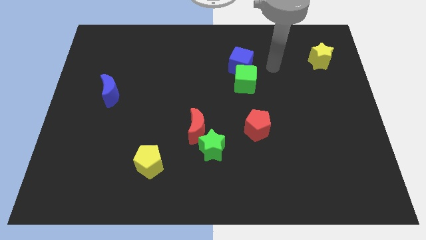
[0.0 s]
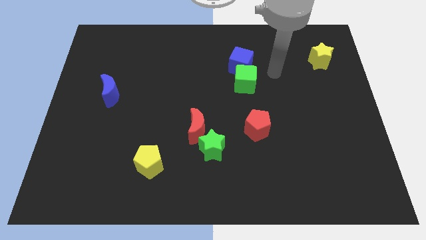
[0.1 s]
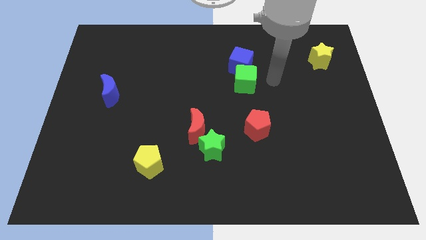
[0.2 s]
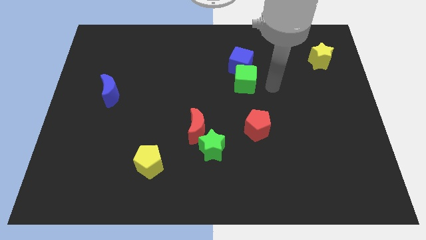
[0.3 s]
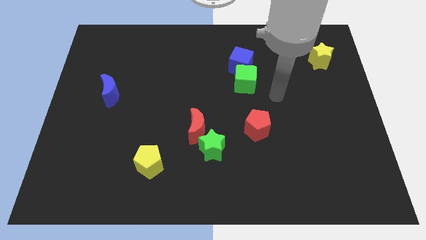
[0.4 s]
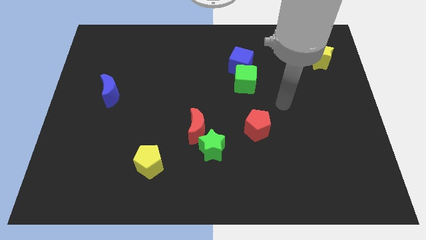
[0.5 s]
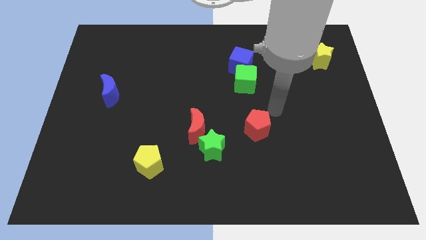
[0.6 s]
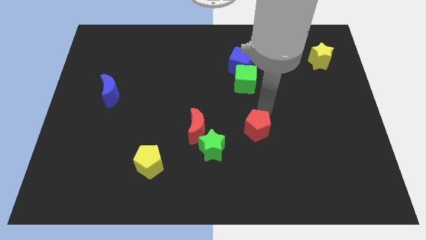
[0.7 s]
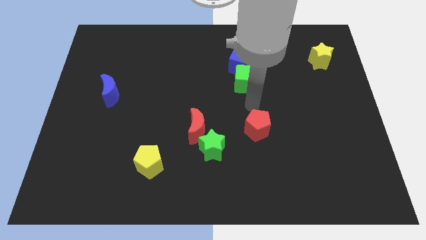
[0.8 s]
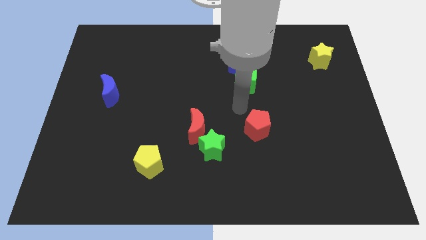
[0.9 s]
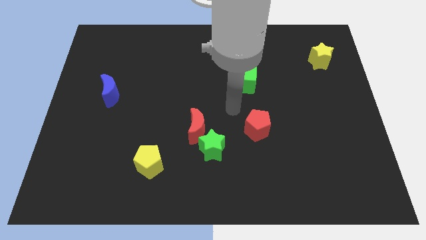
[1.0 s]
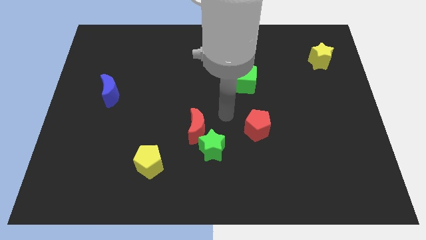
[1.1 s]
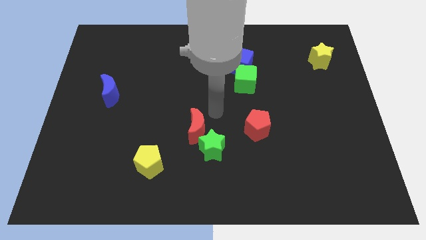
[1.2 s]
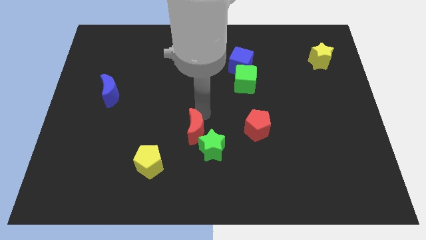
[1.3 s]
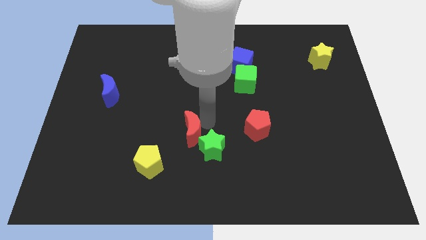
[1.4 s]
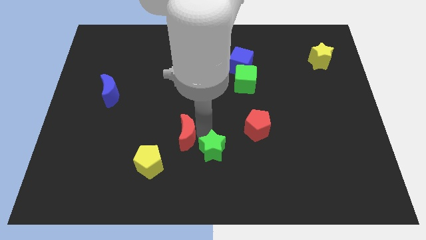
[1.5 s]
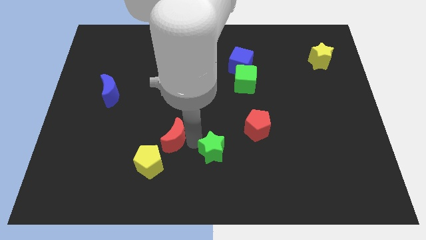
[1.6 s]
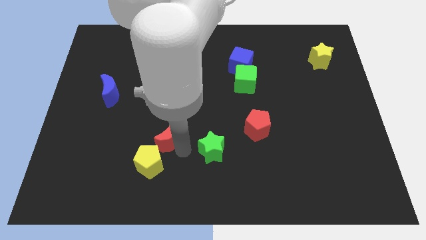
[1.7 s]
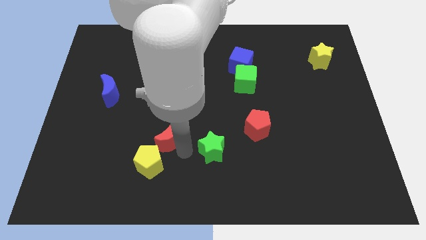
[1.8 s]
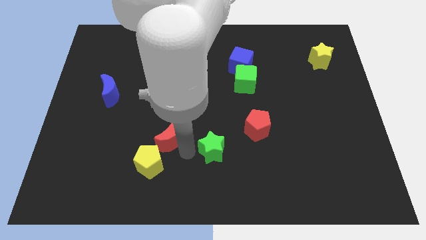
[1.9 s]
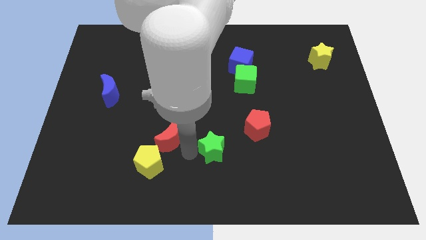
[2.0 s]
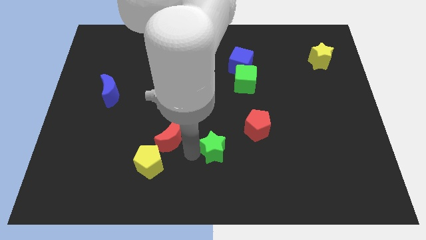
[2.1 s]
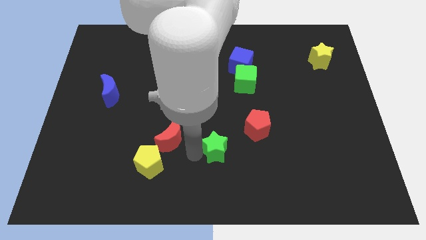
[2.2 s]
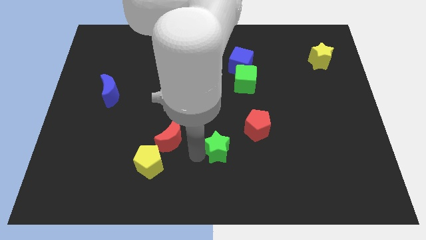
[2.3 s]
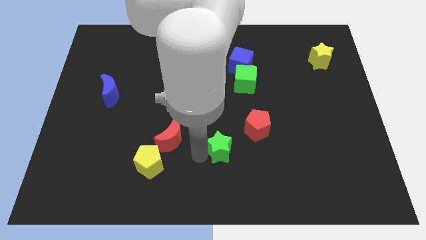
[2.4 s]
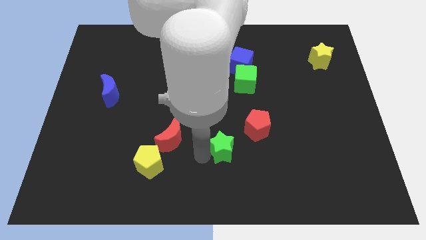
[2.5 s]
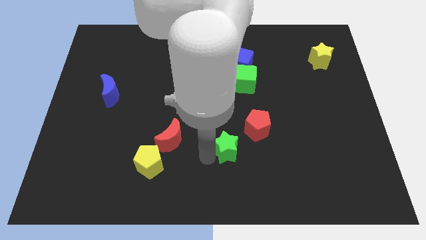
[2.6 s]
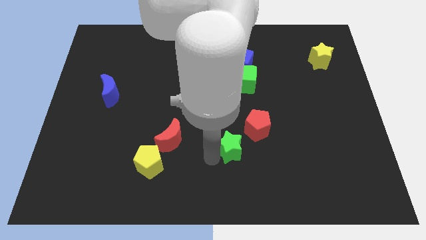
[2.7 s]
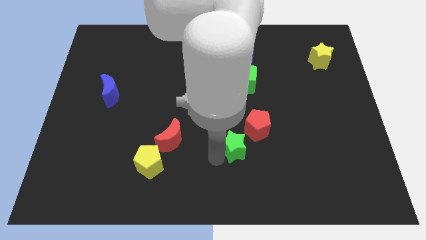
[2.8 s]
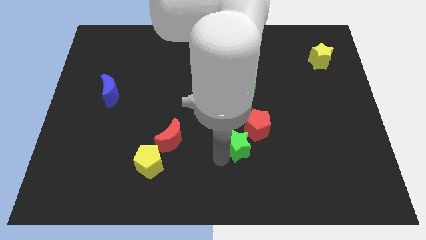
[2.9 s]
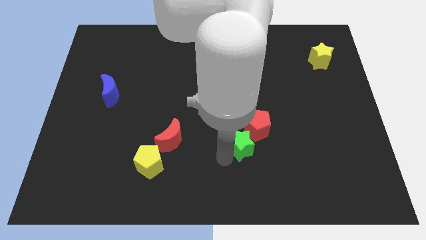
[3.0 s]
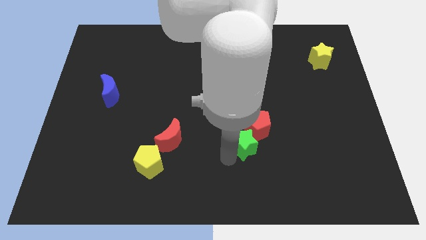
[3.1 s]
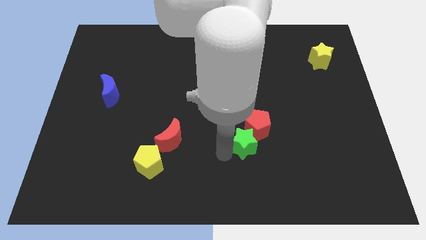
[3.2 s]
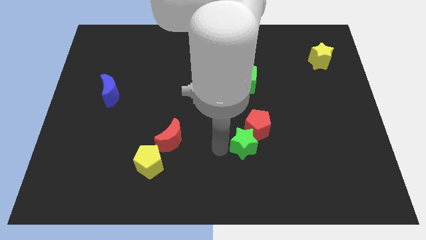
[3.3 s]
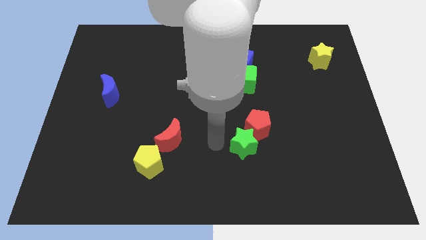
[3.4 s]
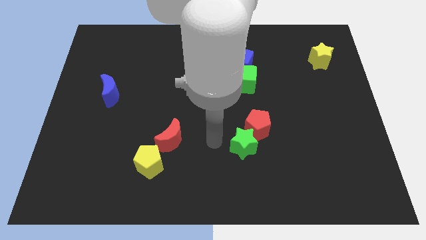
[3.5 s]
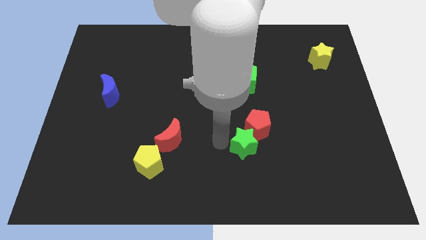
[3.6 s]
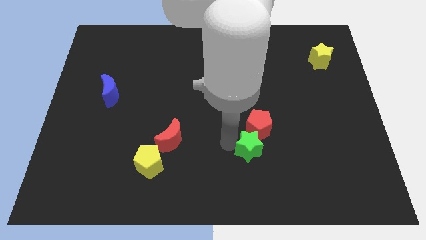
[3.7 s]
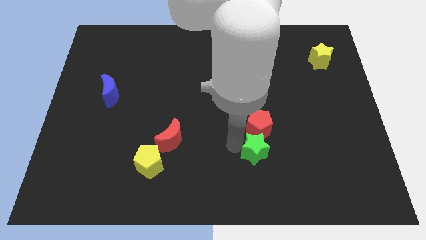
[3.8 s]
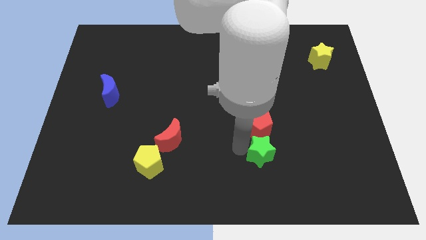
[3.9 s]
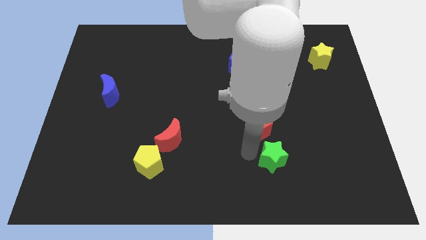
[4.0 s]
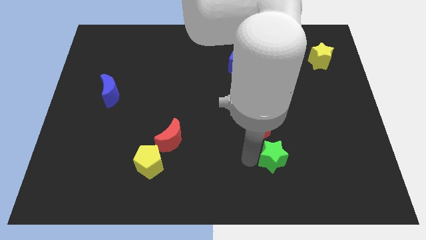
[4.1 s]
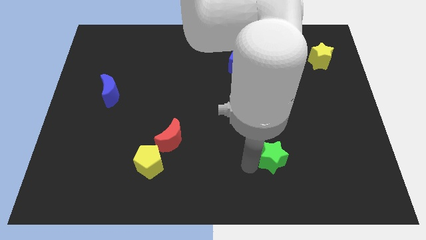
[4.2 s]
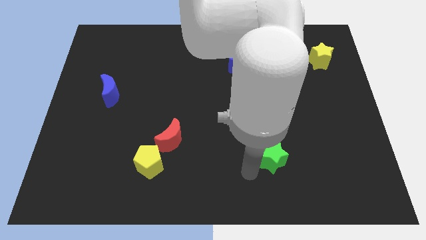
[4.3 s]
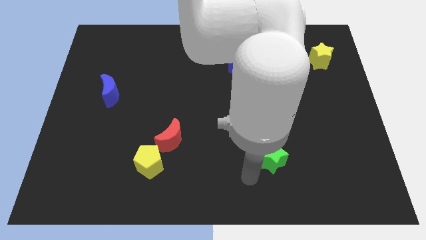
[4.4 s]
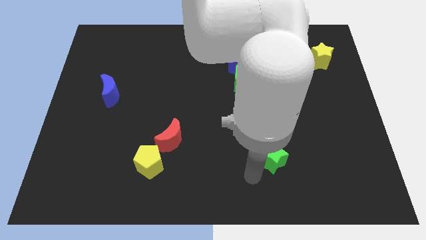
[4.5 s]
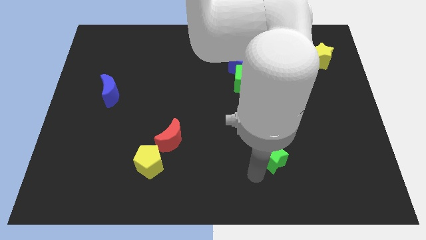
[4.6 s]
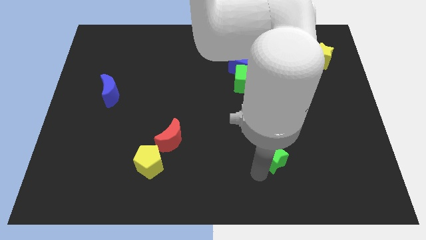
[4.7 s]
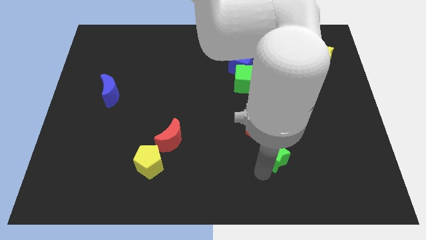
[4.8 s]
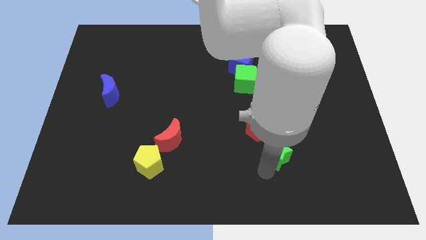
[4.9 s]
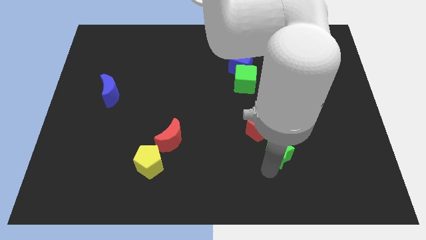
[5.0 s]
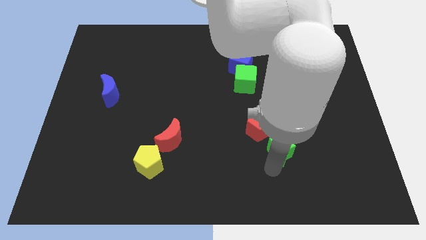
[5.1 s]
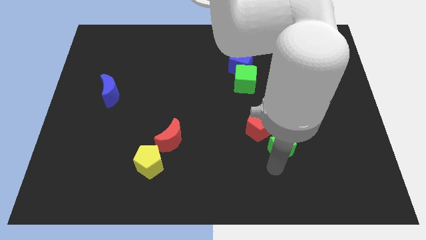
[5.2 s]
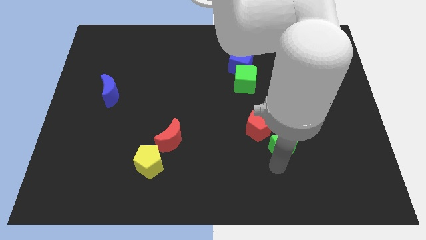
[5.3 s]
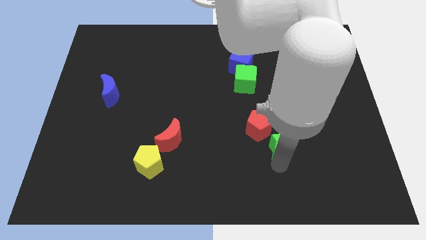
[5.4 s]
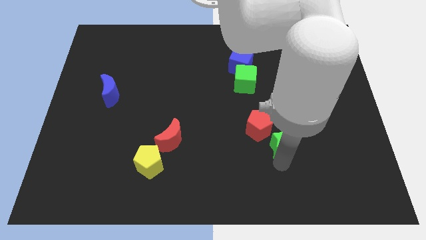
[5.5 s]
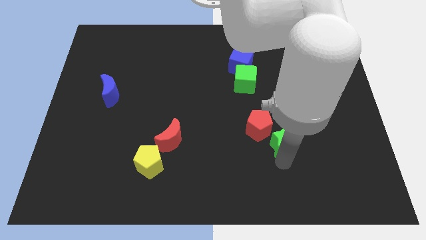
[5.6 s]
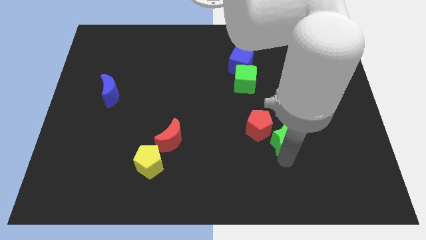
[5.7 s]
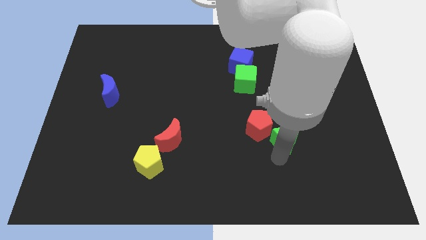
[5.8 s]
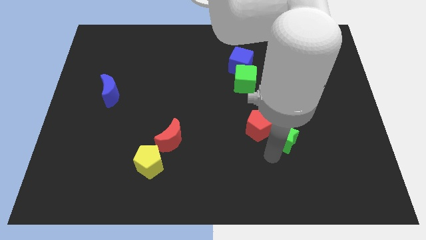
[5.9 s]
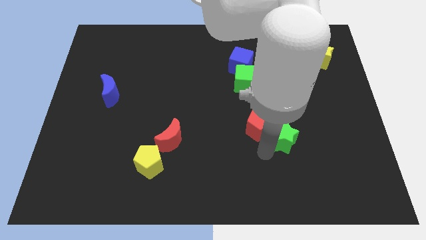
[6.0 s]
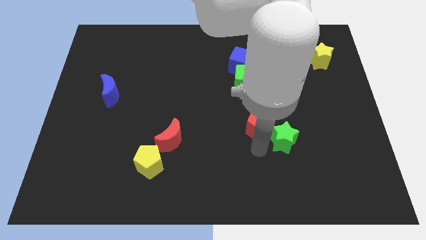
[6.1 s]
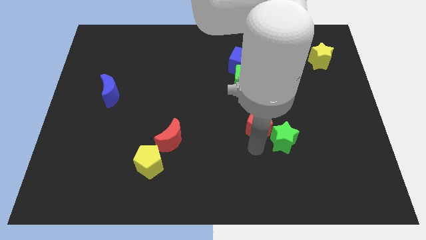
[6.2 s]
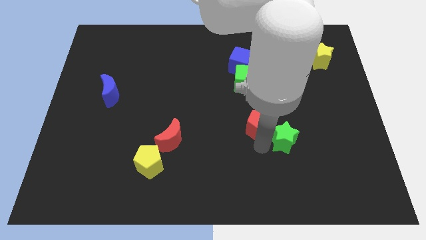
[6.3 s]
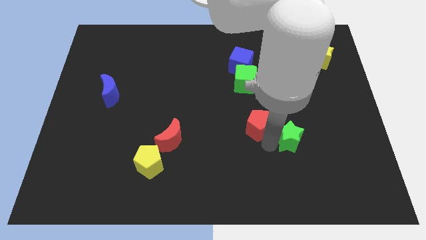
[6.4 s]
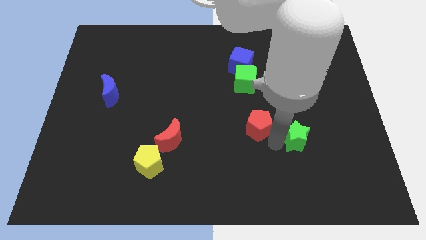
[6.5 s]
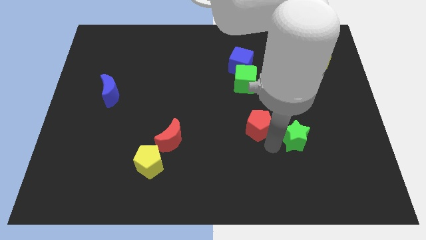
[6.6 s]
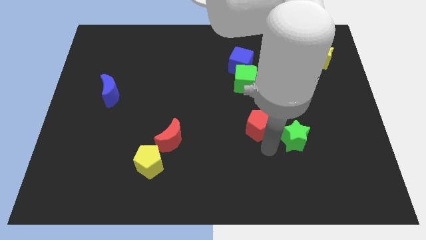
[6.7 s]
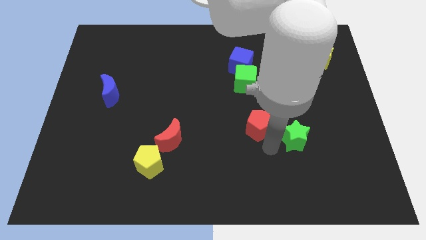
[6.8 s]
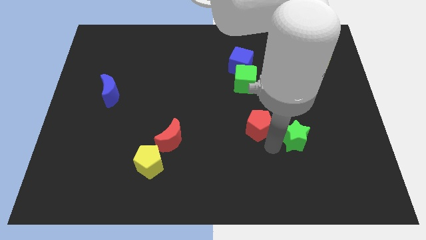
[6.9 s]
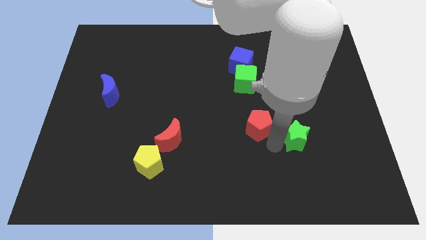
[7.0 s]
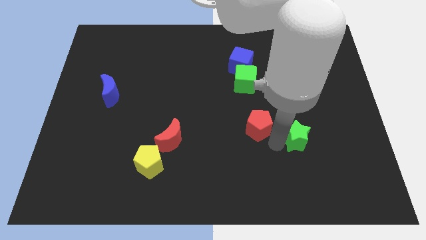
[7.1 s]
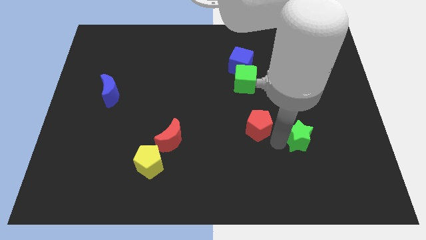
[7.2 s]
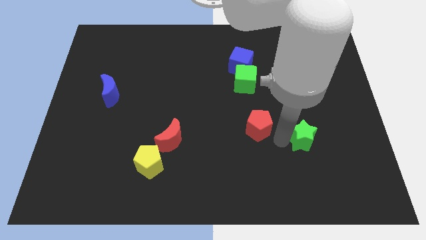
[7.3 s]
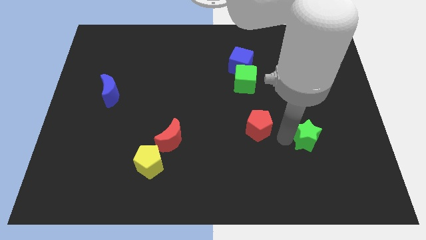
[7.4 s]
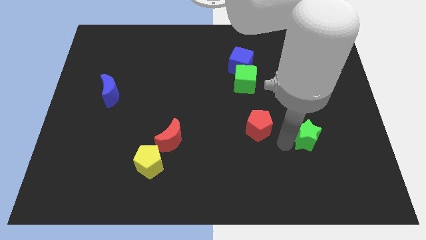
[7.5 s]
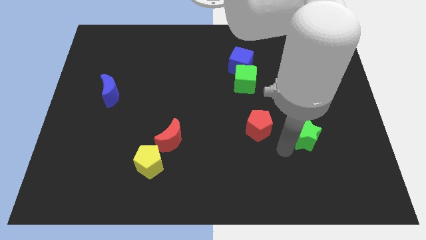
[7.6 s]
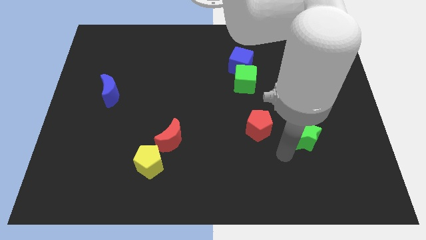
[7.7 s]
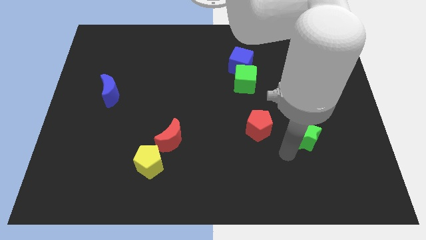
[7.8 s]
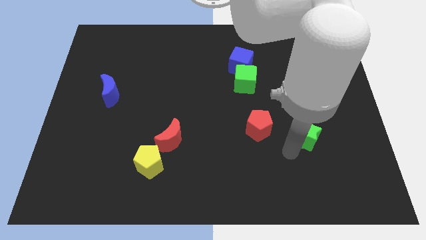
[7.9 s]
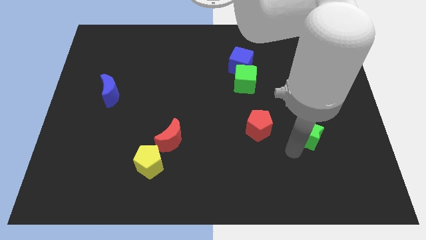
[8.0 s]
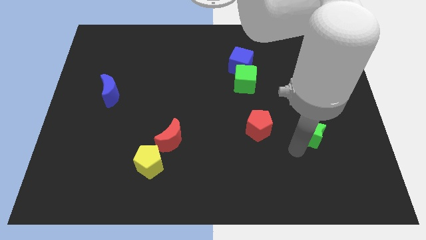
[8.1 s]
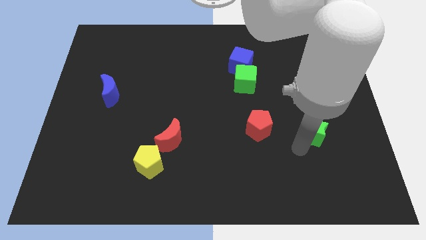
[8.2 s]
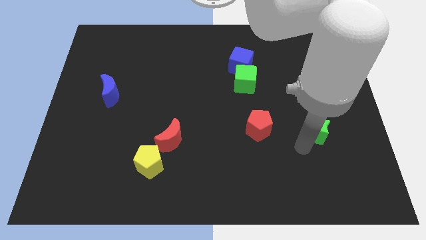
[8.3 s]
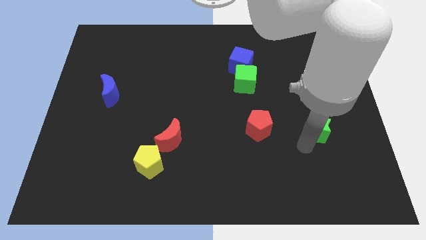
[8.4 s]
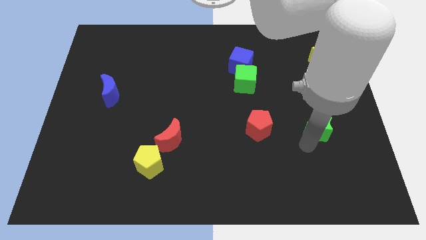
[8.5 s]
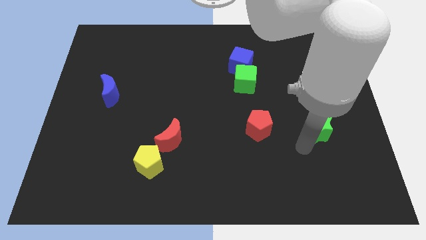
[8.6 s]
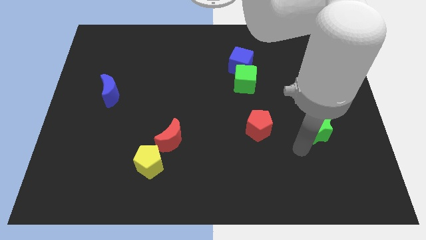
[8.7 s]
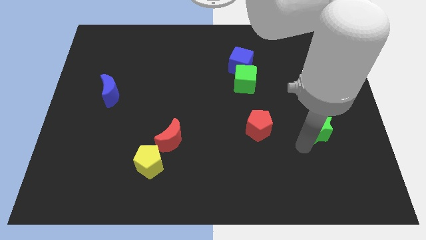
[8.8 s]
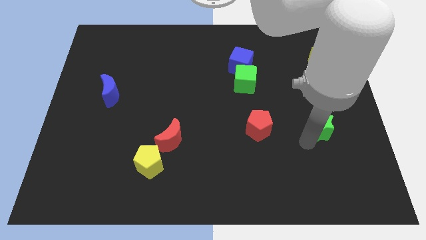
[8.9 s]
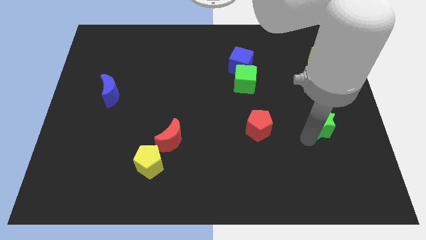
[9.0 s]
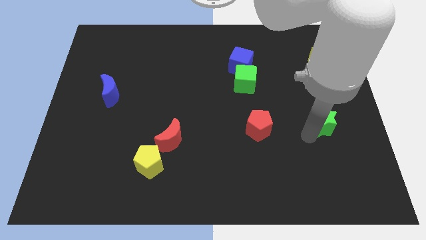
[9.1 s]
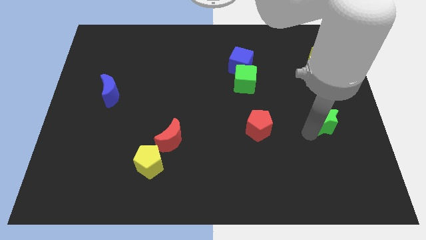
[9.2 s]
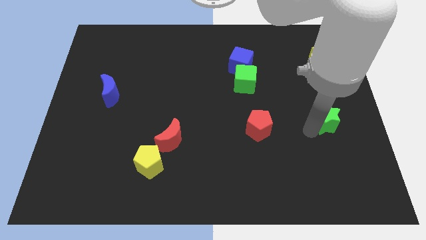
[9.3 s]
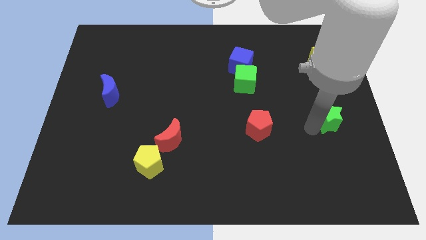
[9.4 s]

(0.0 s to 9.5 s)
push the green star to the right side of the board
